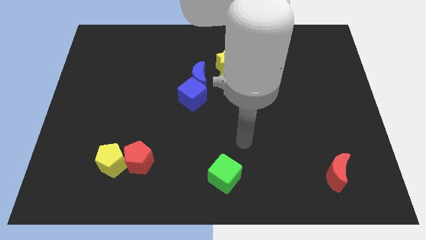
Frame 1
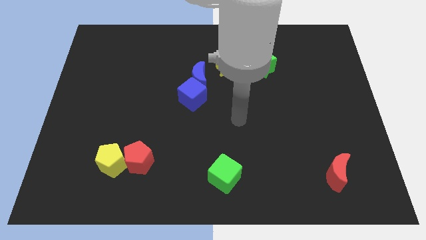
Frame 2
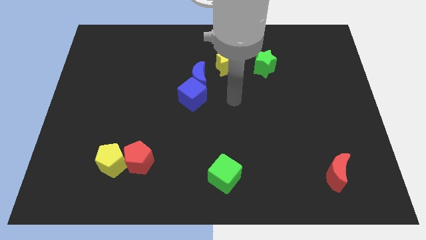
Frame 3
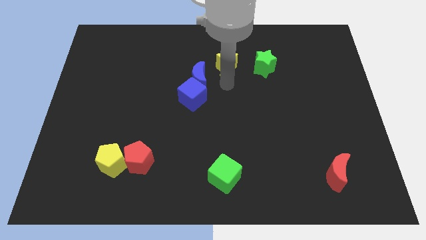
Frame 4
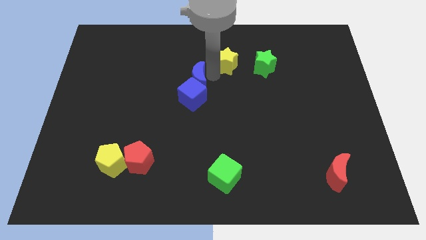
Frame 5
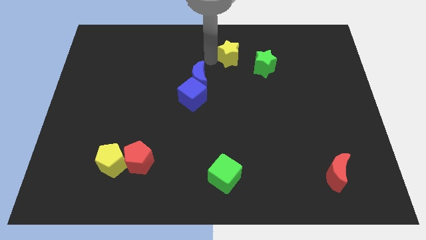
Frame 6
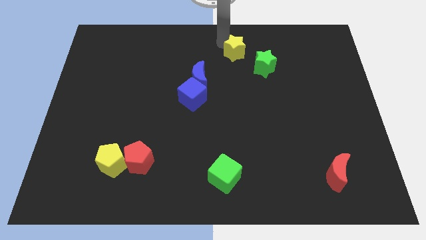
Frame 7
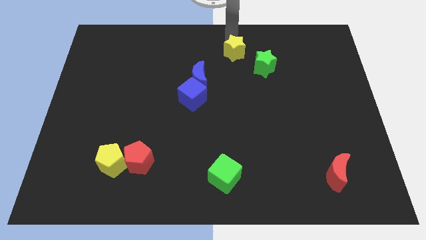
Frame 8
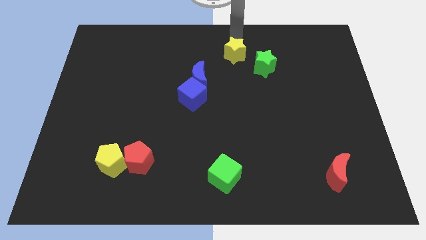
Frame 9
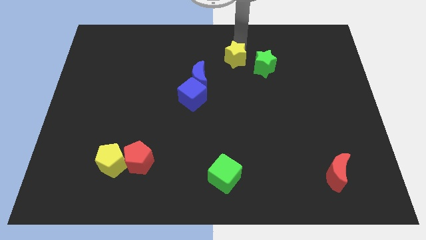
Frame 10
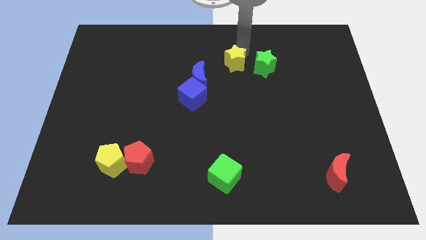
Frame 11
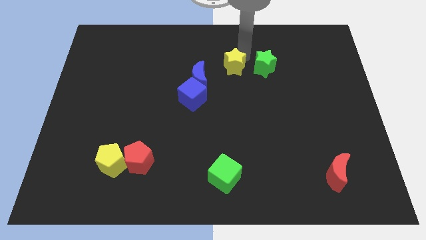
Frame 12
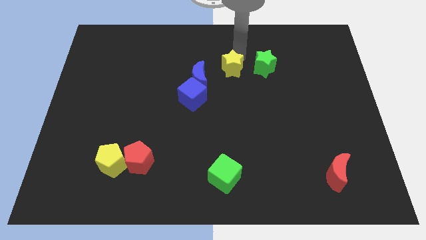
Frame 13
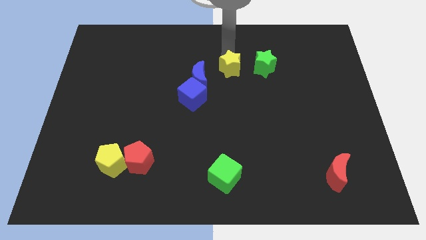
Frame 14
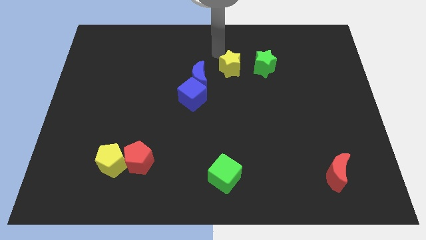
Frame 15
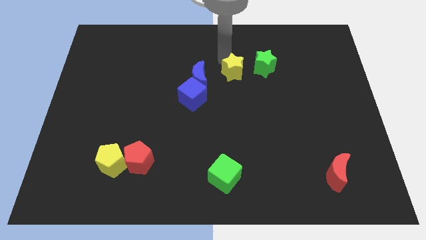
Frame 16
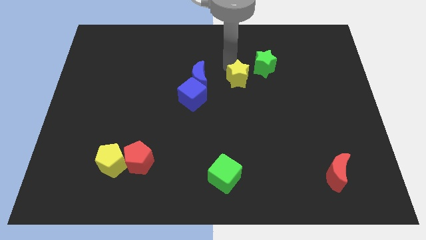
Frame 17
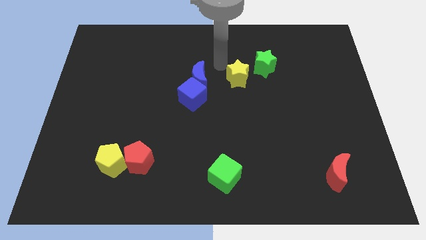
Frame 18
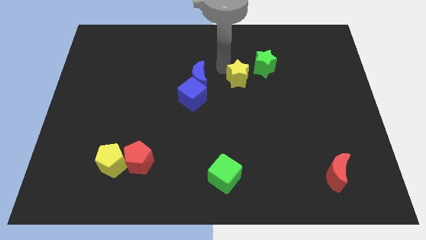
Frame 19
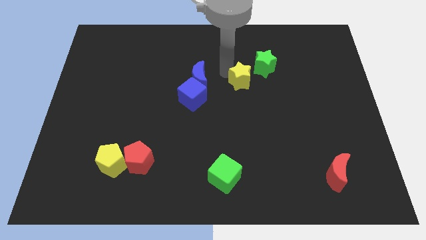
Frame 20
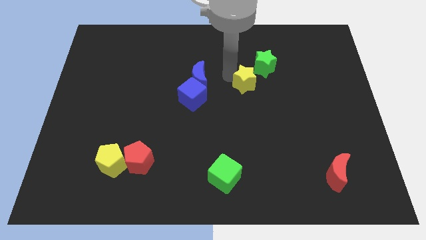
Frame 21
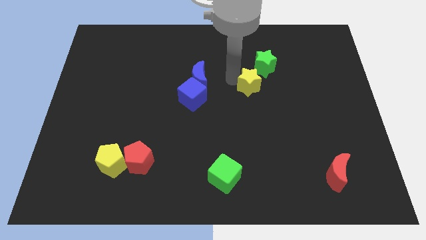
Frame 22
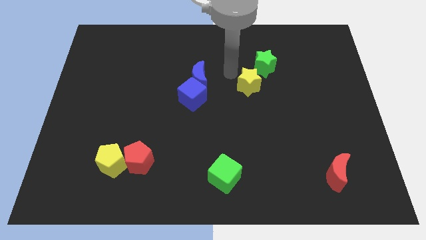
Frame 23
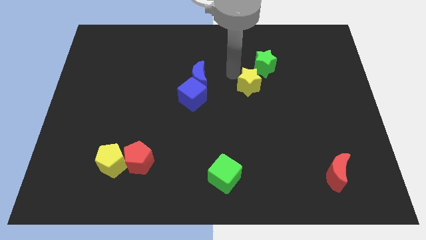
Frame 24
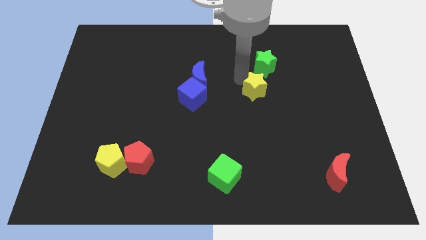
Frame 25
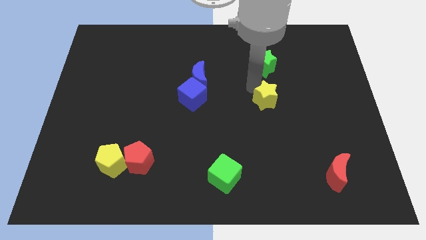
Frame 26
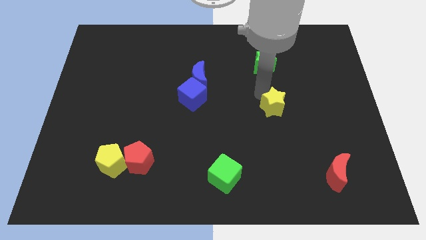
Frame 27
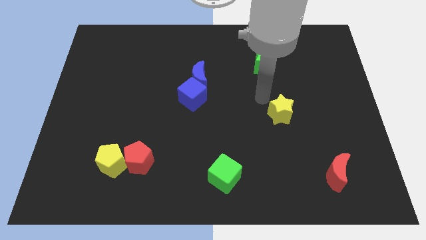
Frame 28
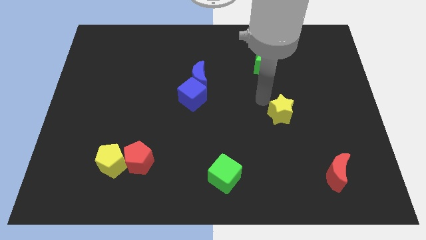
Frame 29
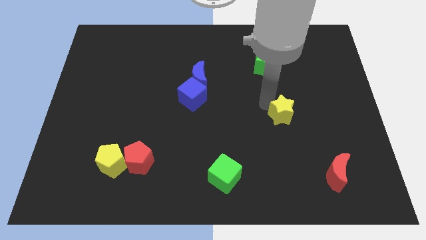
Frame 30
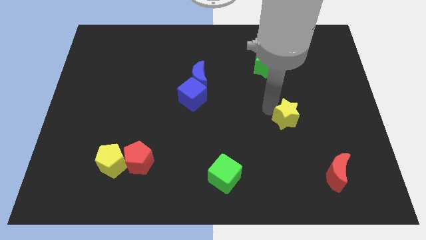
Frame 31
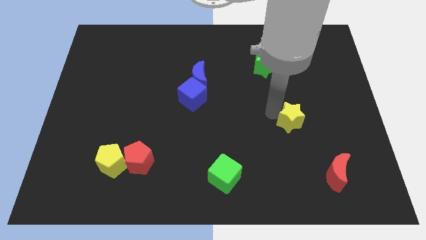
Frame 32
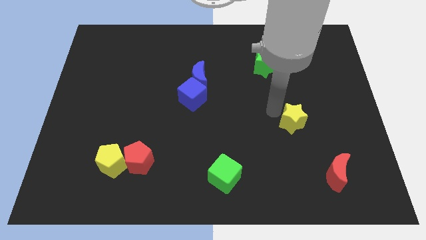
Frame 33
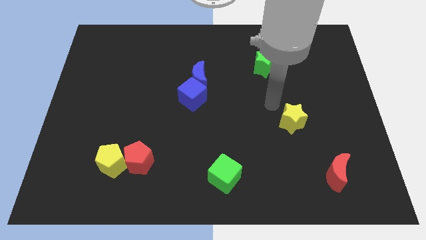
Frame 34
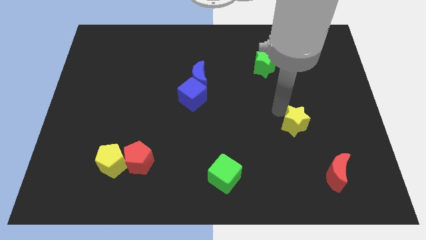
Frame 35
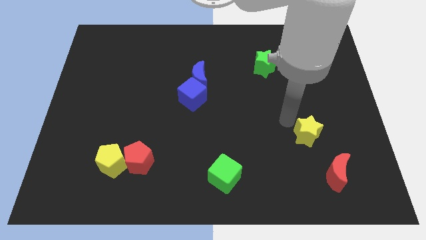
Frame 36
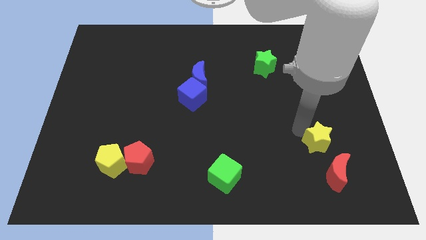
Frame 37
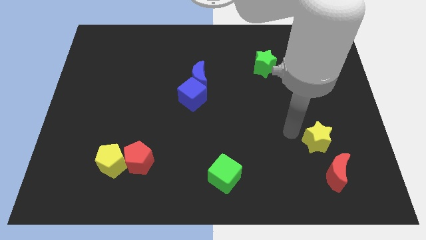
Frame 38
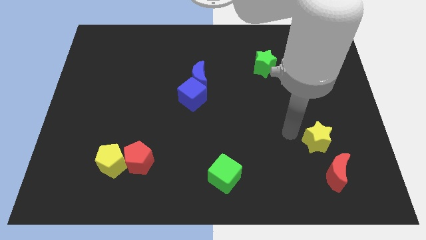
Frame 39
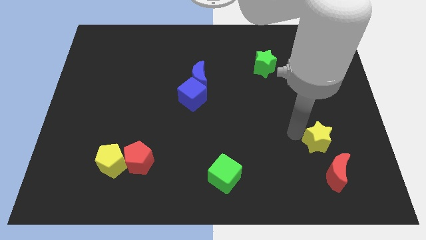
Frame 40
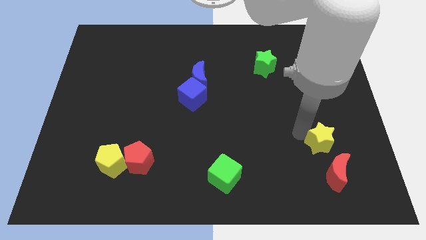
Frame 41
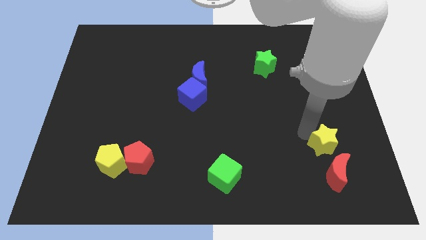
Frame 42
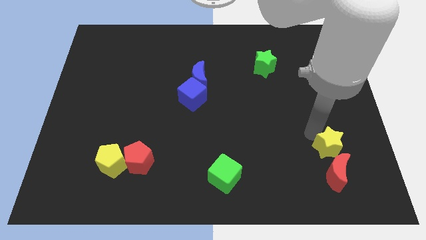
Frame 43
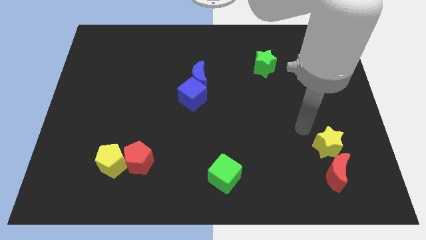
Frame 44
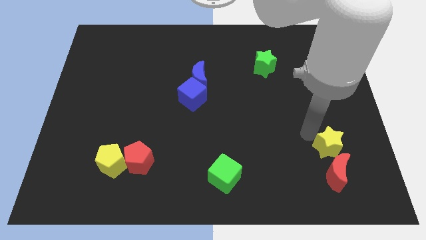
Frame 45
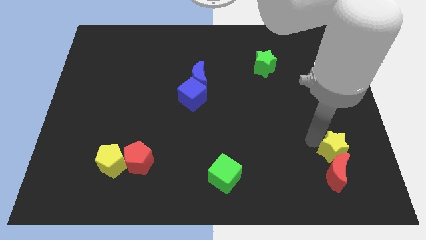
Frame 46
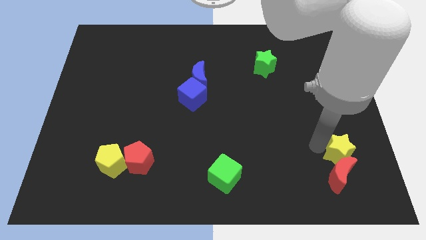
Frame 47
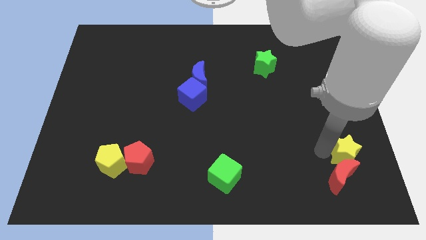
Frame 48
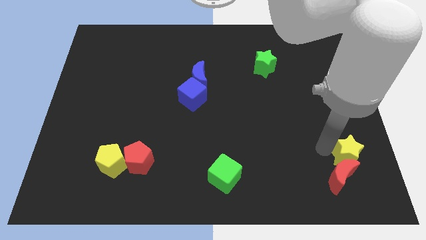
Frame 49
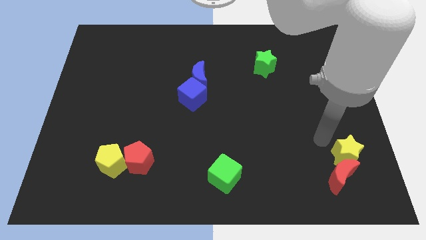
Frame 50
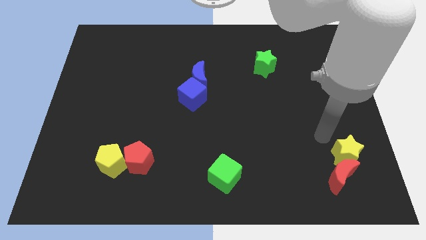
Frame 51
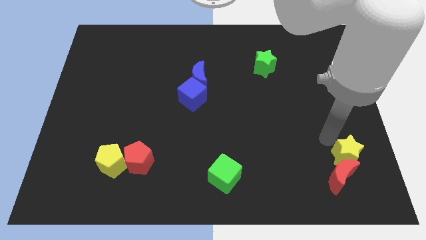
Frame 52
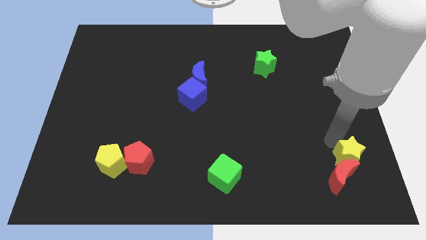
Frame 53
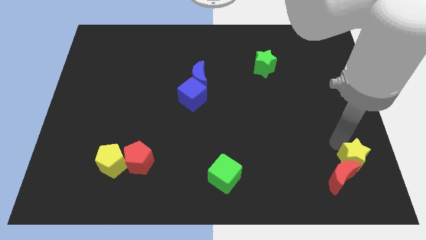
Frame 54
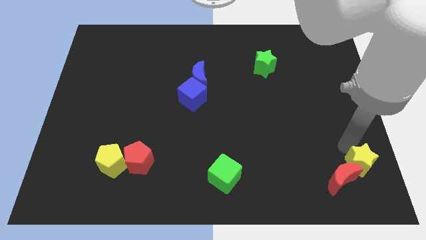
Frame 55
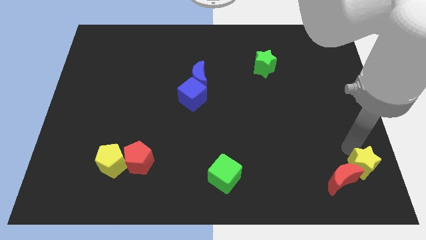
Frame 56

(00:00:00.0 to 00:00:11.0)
slide the yellow star to the bottom right corner

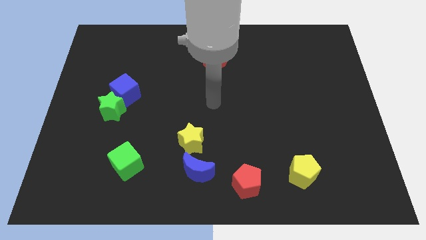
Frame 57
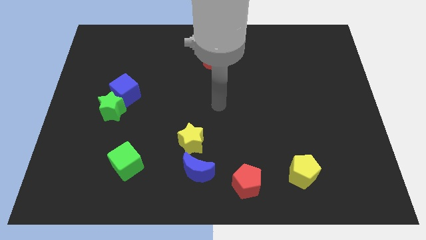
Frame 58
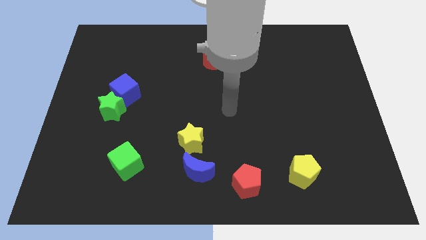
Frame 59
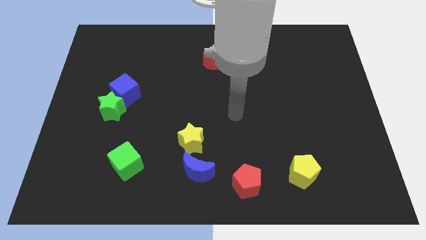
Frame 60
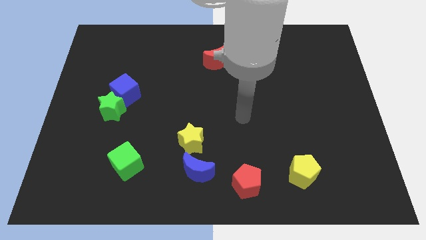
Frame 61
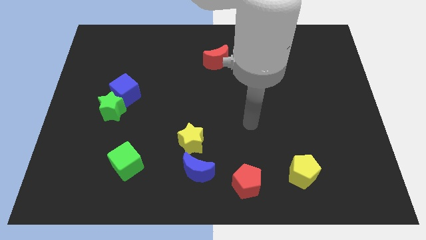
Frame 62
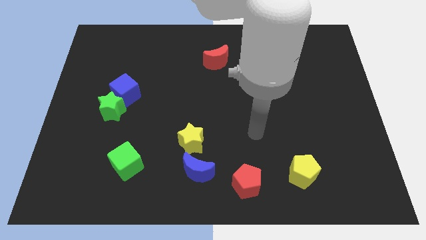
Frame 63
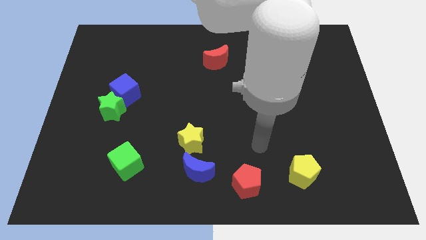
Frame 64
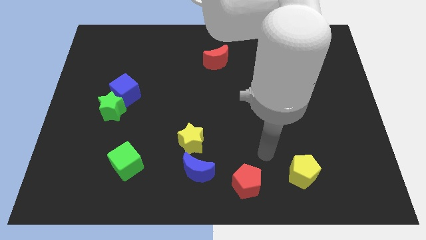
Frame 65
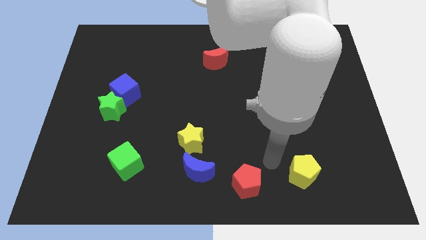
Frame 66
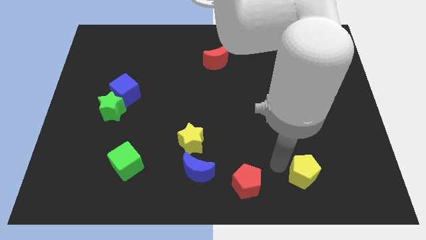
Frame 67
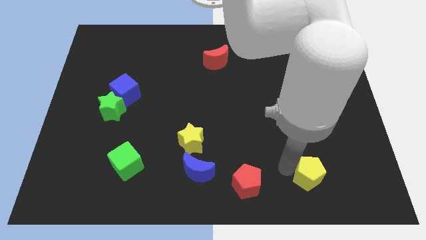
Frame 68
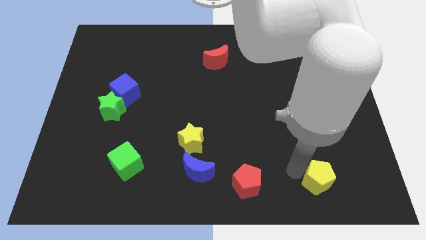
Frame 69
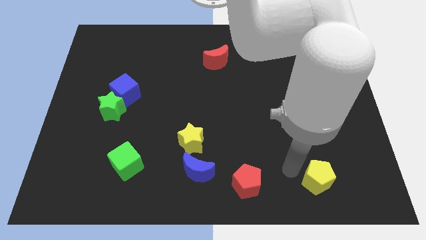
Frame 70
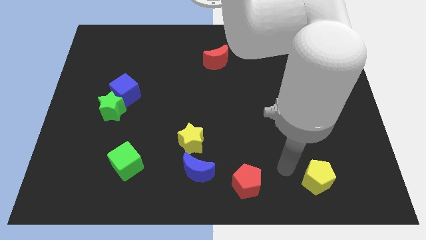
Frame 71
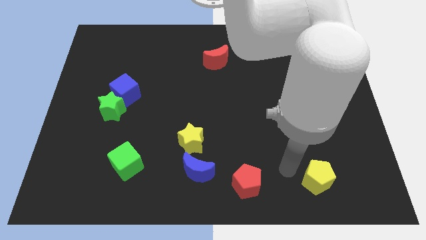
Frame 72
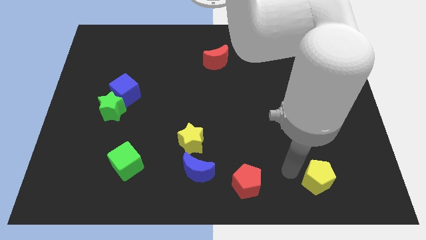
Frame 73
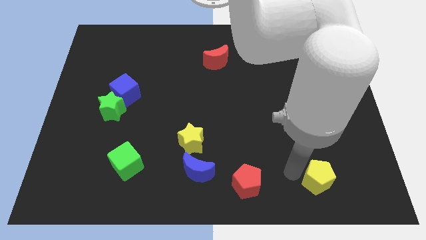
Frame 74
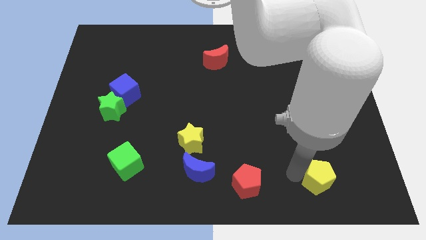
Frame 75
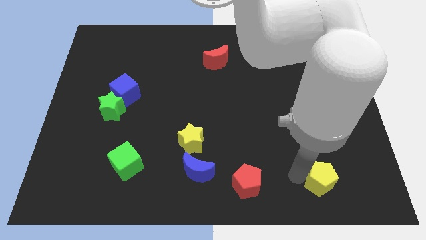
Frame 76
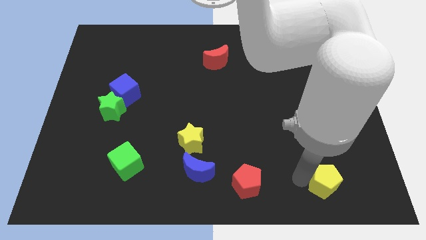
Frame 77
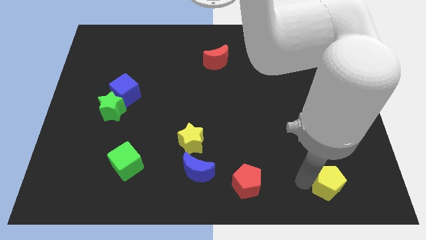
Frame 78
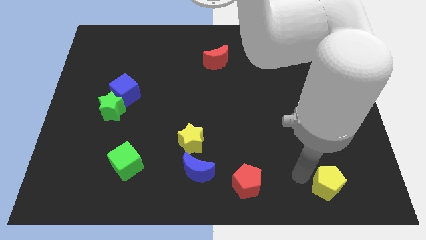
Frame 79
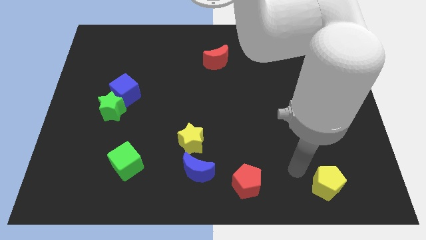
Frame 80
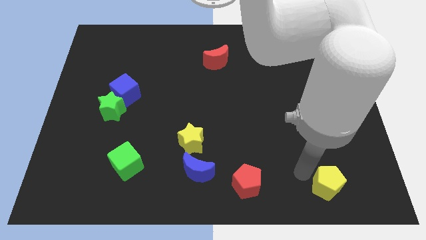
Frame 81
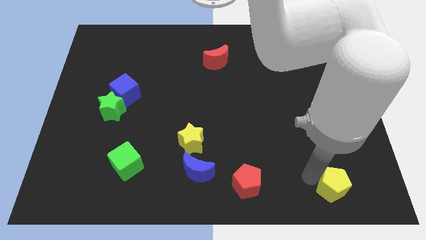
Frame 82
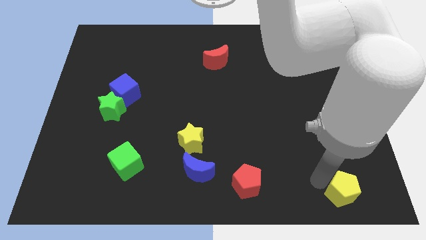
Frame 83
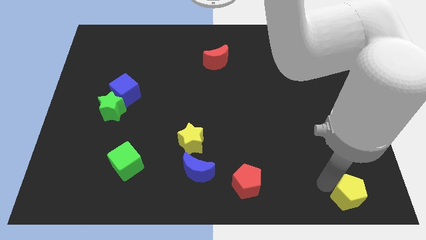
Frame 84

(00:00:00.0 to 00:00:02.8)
push the yellow pentagon to the bottom right of the board
